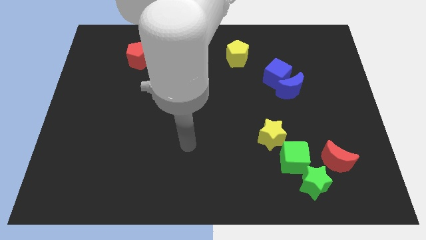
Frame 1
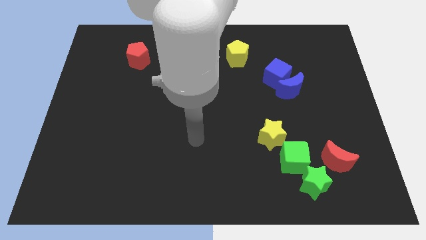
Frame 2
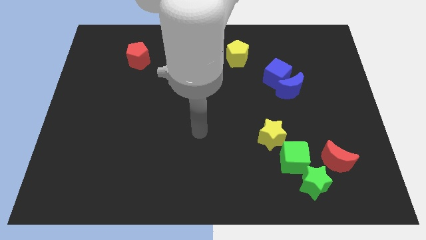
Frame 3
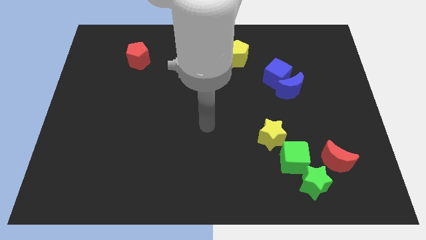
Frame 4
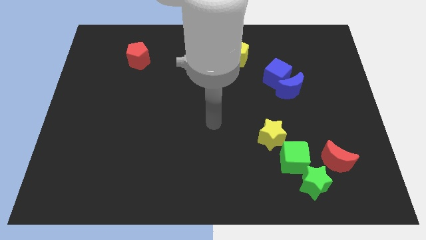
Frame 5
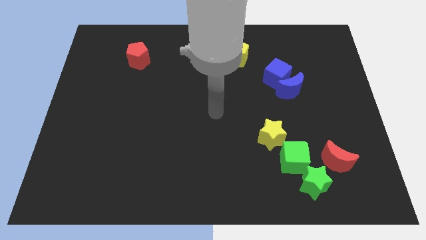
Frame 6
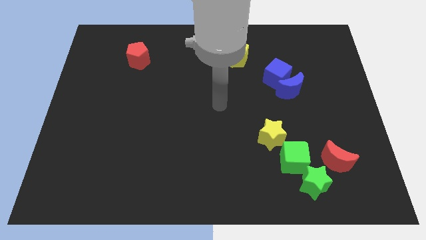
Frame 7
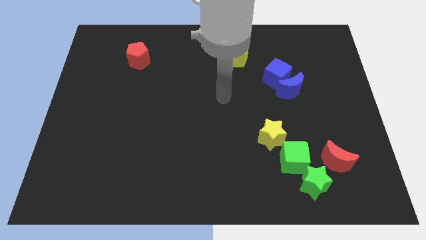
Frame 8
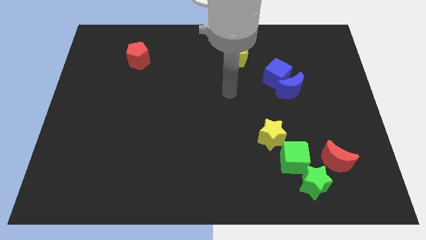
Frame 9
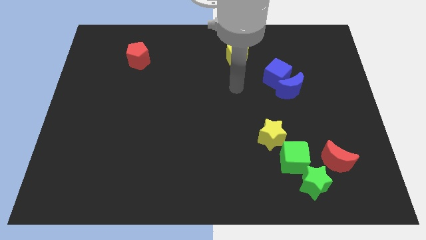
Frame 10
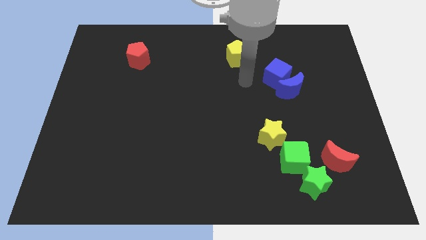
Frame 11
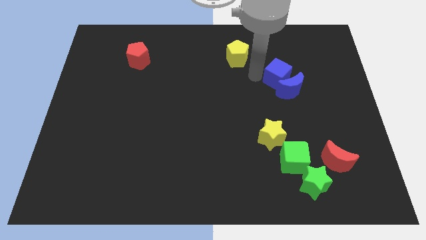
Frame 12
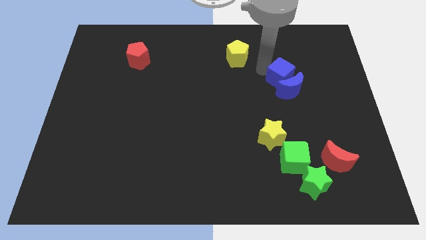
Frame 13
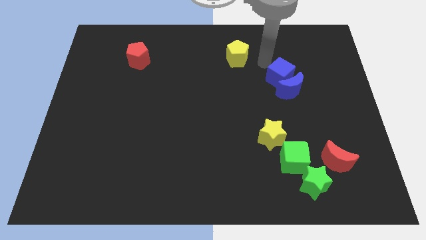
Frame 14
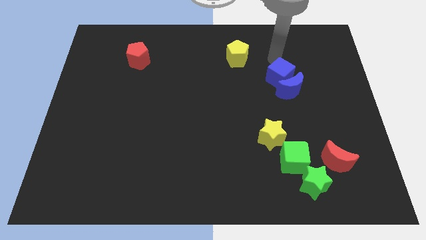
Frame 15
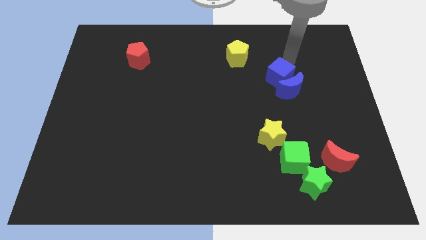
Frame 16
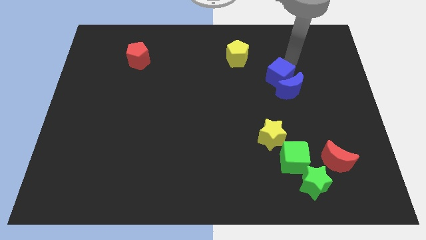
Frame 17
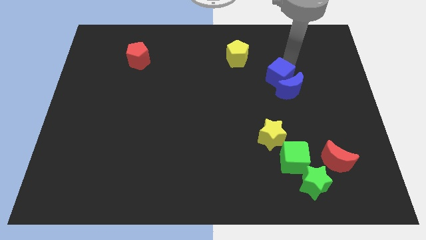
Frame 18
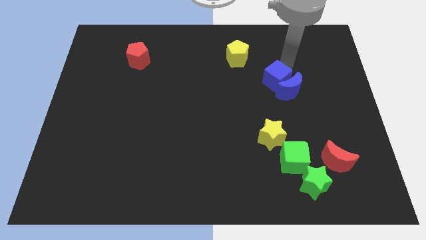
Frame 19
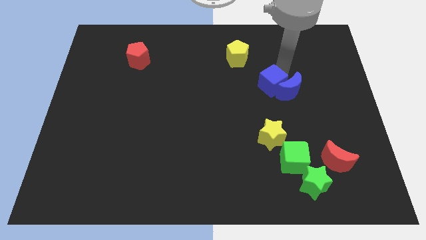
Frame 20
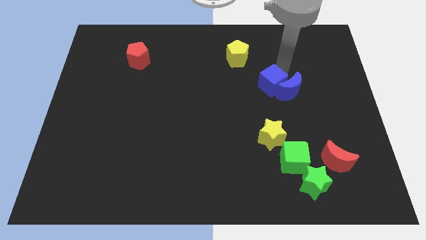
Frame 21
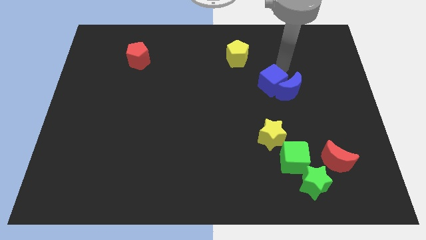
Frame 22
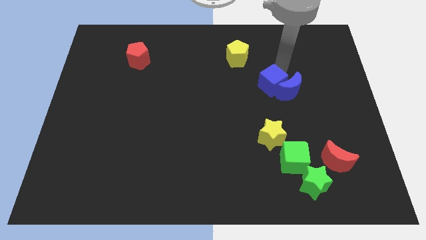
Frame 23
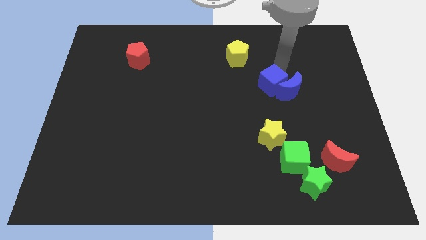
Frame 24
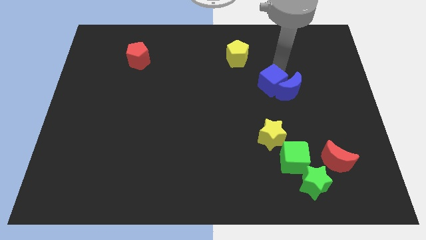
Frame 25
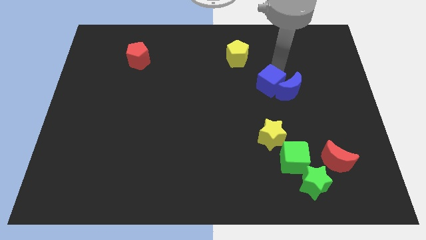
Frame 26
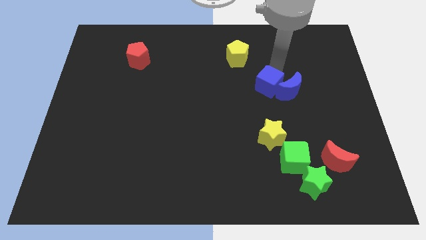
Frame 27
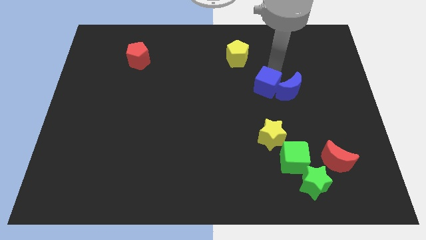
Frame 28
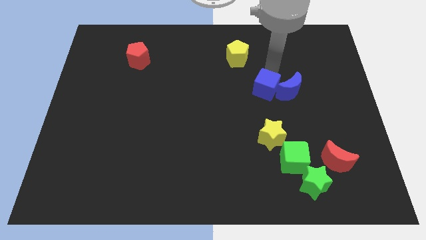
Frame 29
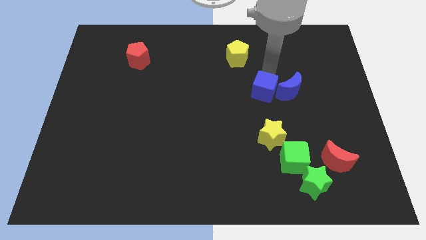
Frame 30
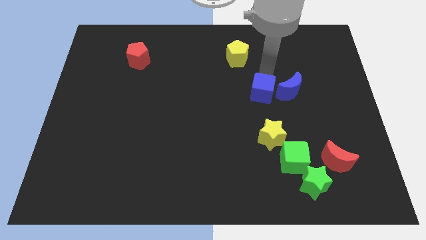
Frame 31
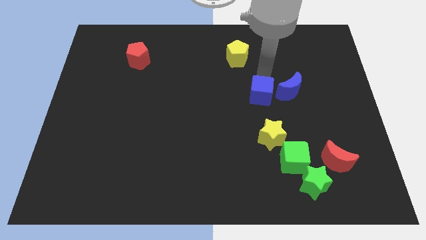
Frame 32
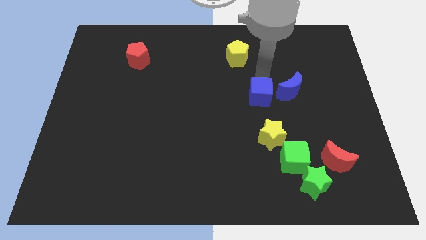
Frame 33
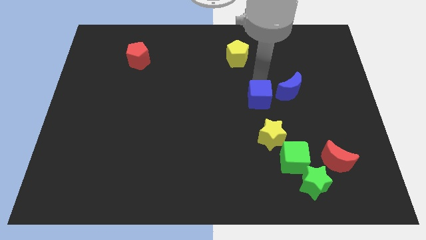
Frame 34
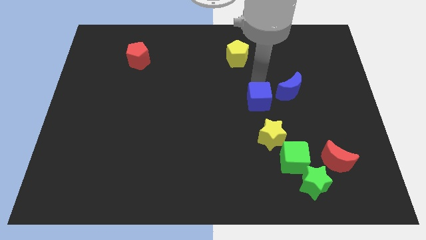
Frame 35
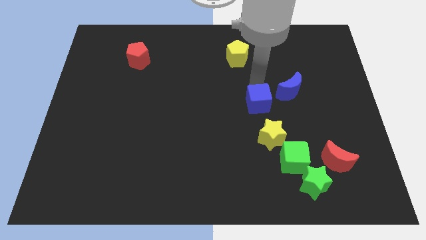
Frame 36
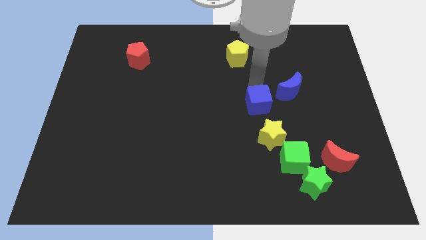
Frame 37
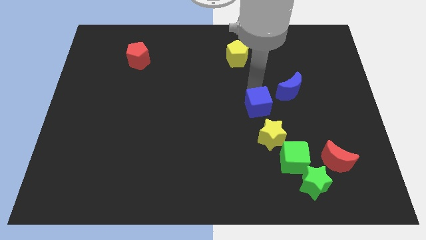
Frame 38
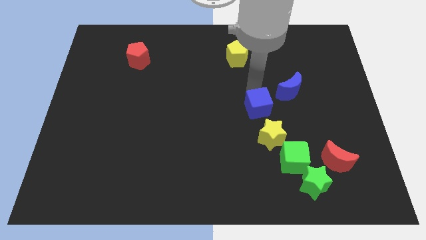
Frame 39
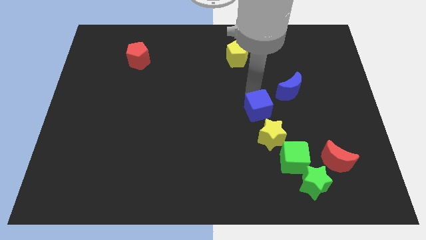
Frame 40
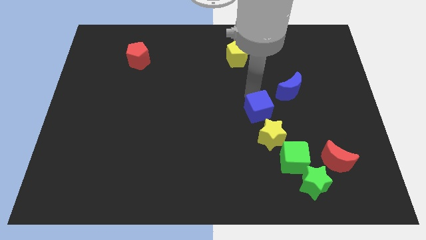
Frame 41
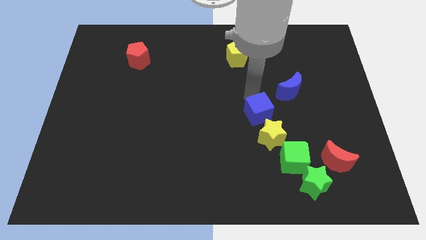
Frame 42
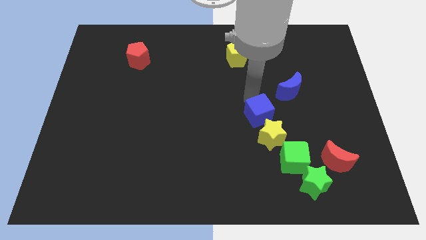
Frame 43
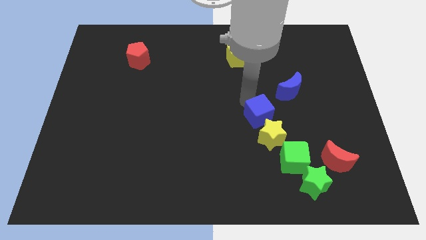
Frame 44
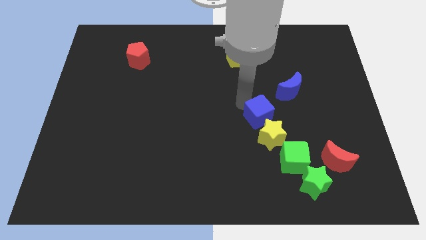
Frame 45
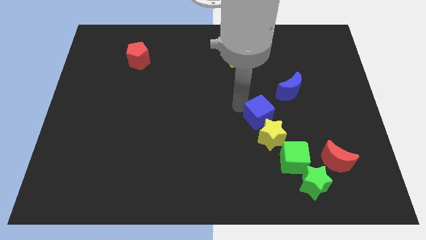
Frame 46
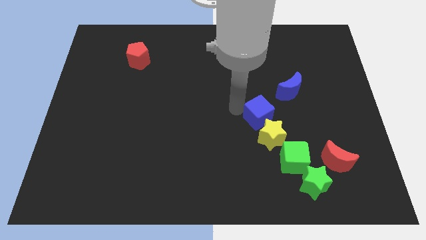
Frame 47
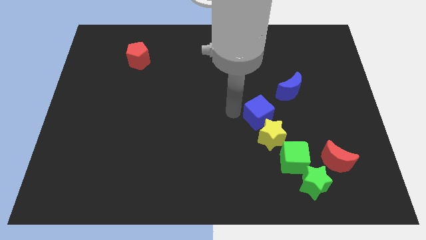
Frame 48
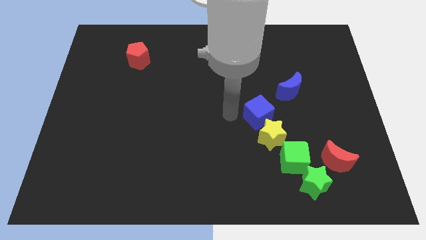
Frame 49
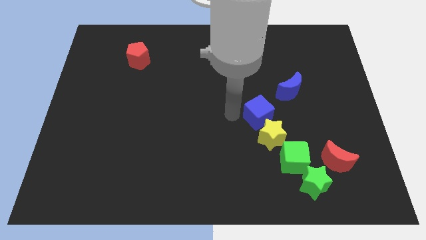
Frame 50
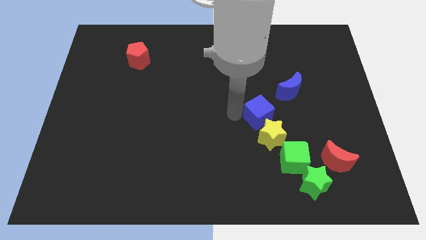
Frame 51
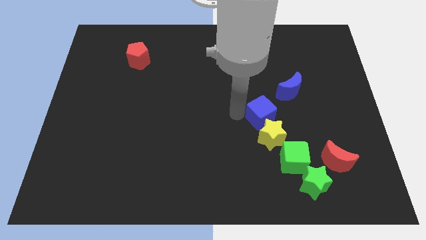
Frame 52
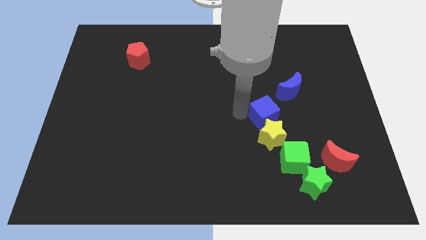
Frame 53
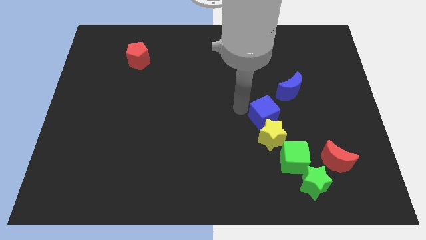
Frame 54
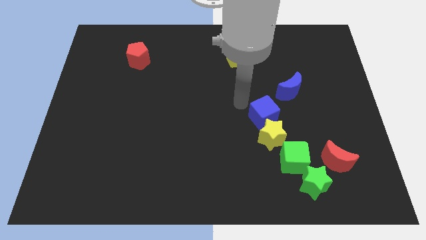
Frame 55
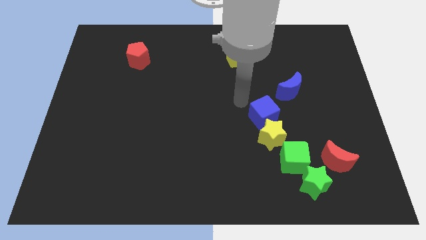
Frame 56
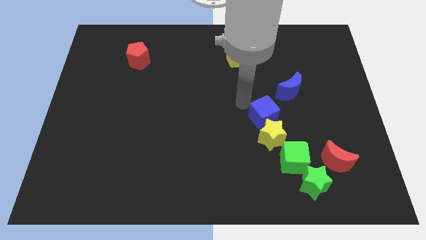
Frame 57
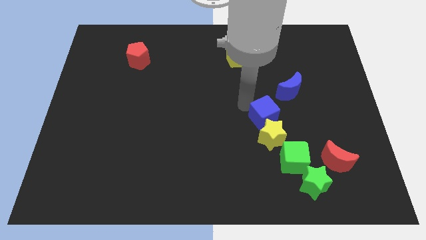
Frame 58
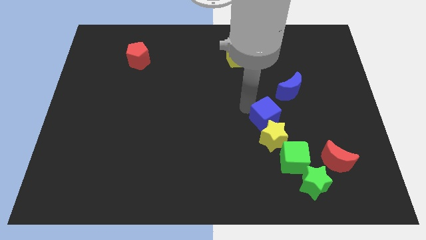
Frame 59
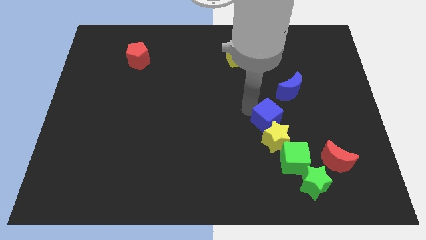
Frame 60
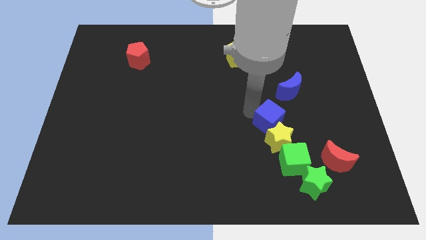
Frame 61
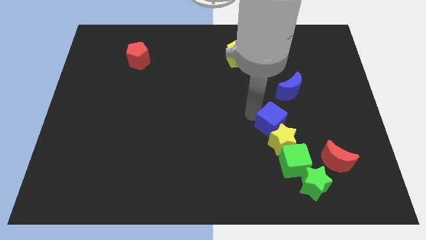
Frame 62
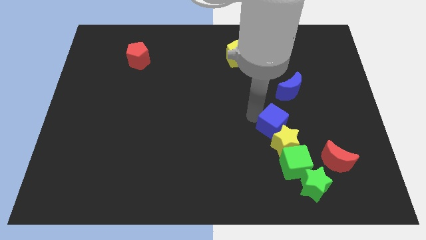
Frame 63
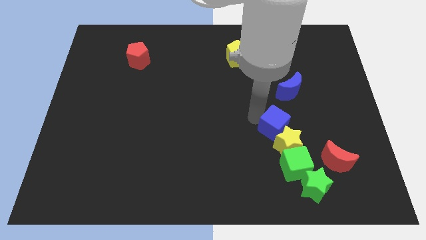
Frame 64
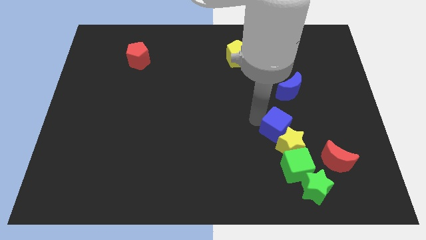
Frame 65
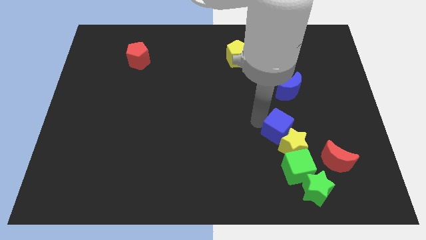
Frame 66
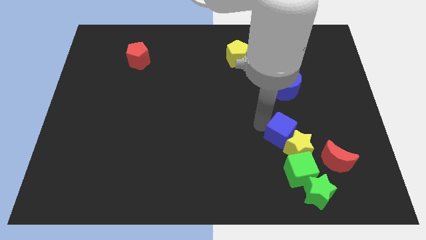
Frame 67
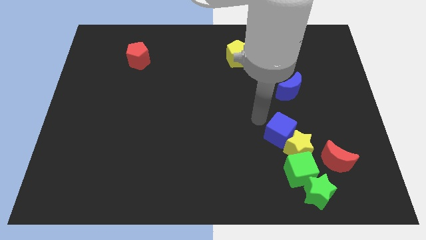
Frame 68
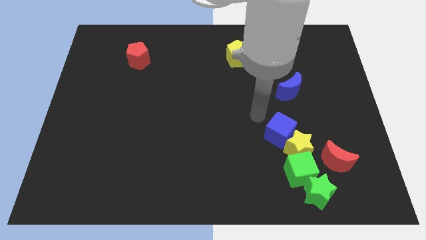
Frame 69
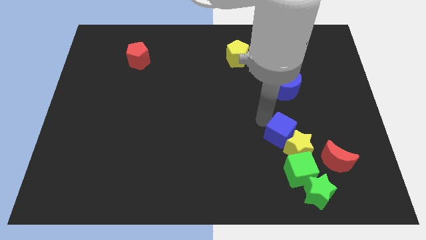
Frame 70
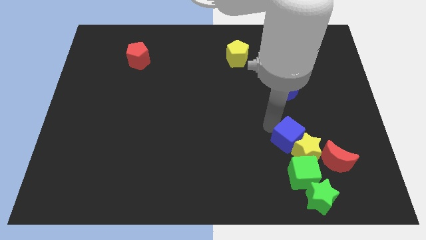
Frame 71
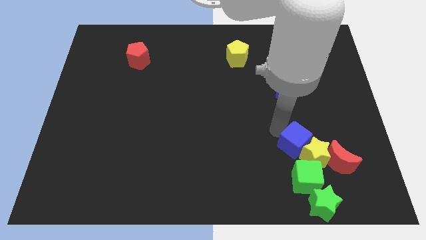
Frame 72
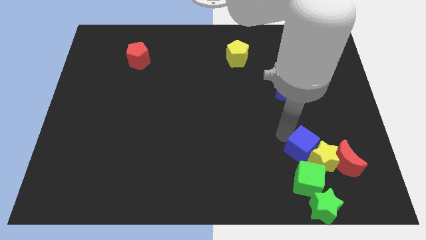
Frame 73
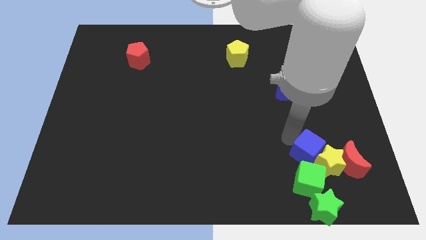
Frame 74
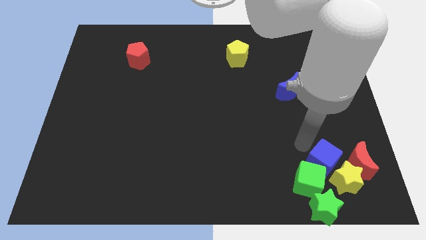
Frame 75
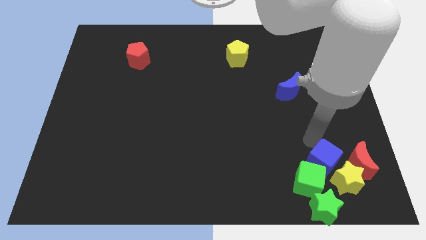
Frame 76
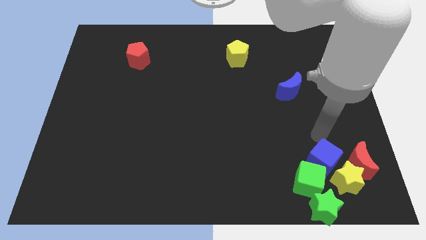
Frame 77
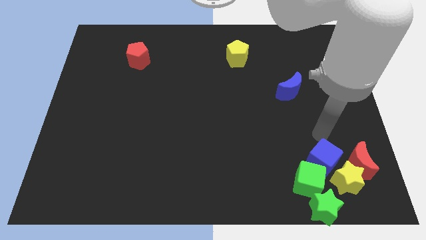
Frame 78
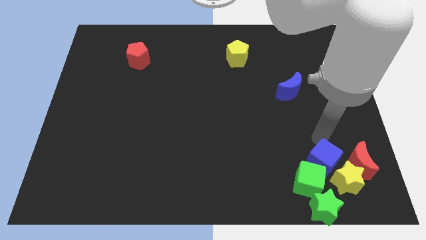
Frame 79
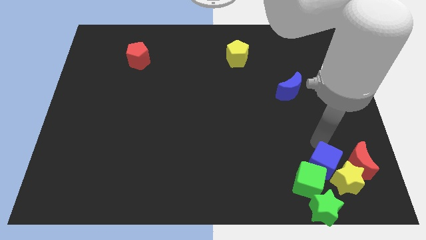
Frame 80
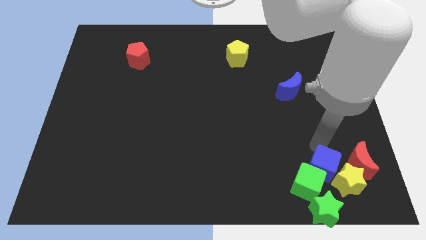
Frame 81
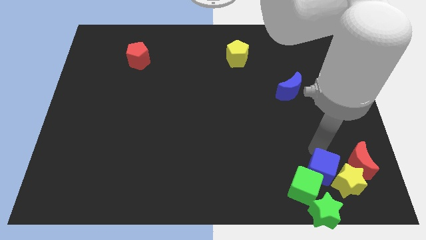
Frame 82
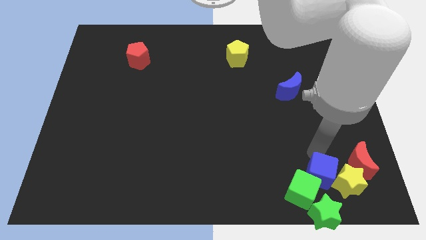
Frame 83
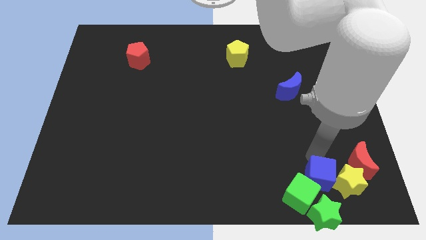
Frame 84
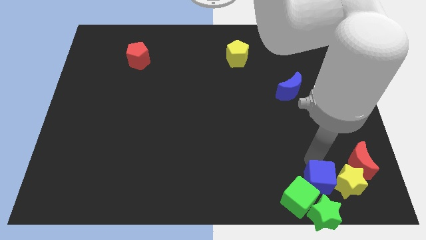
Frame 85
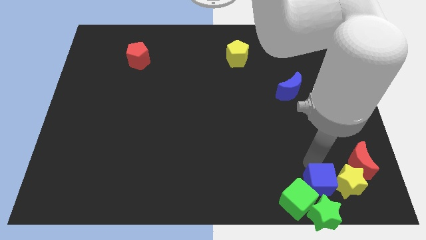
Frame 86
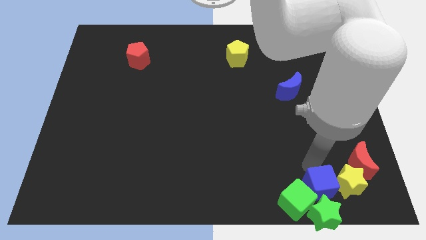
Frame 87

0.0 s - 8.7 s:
slide the blue cube close to the green star
